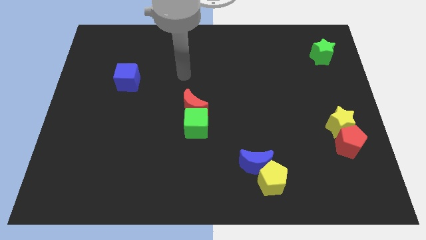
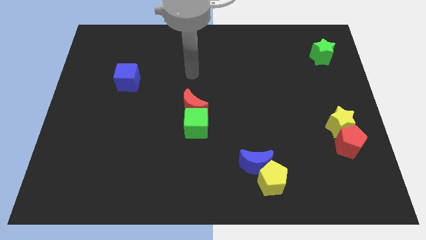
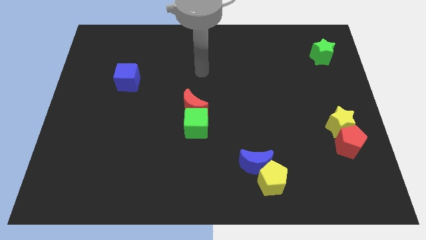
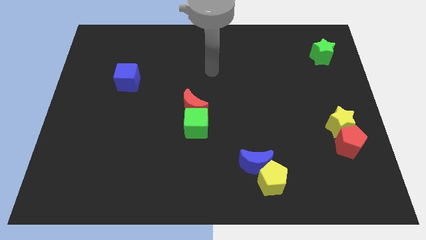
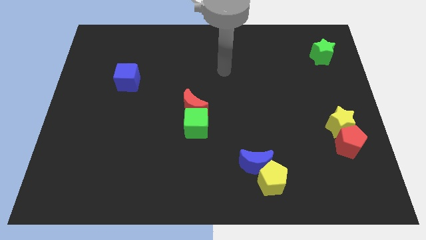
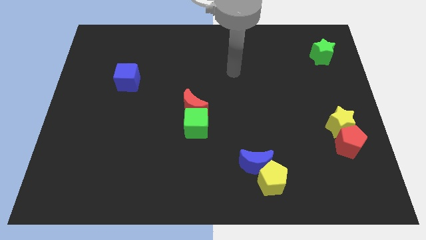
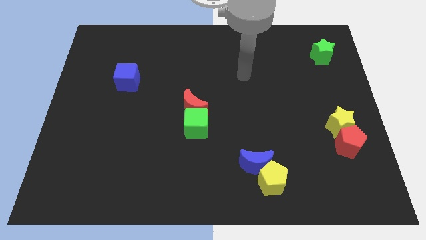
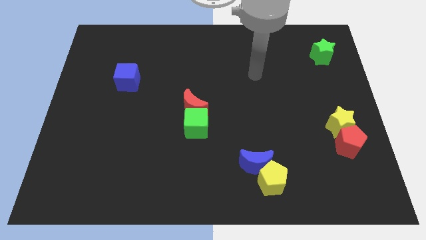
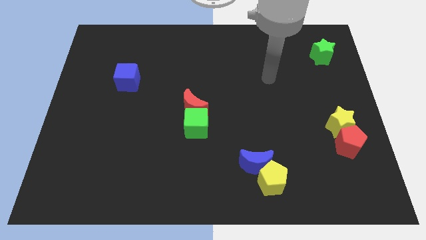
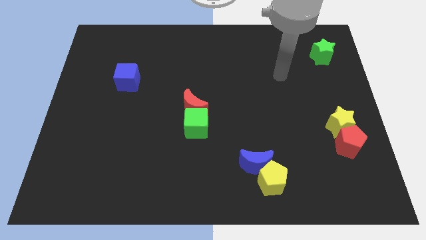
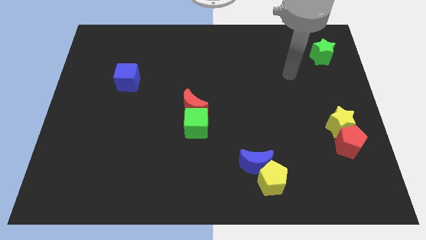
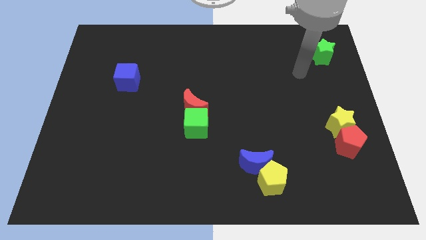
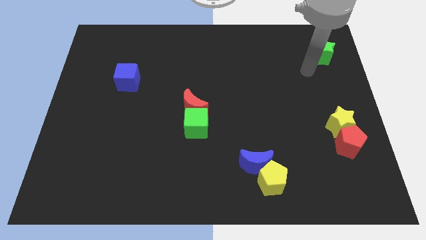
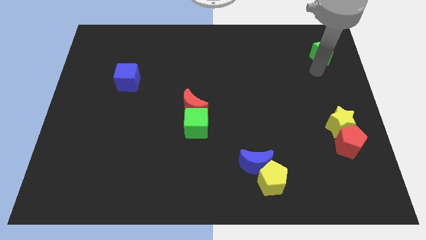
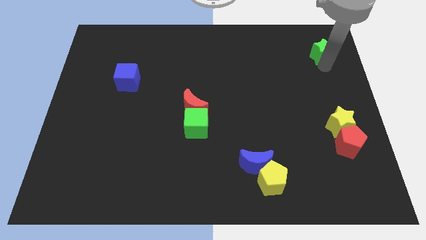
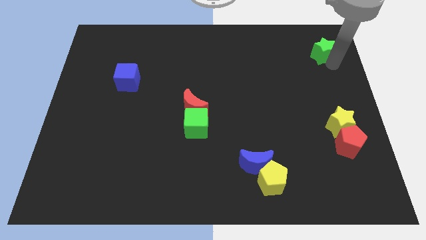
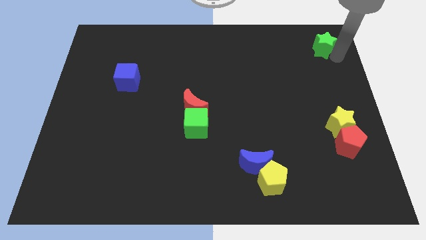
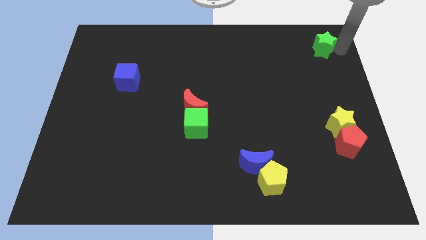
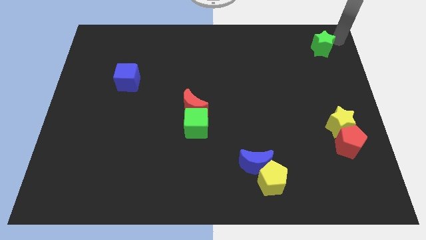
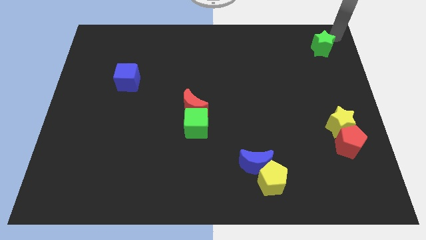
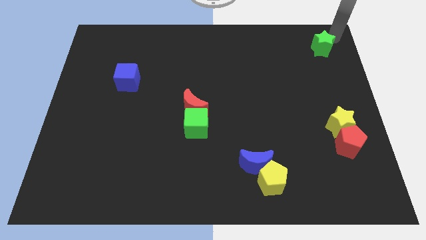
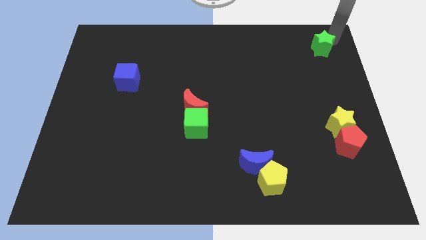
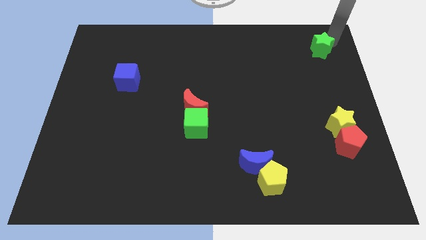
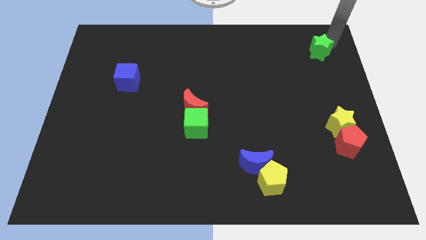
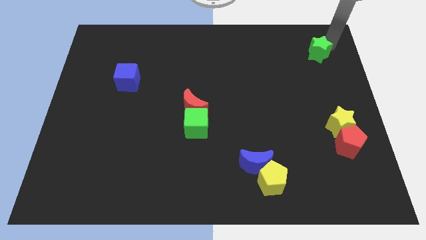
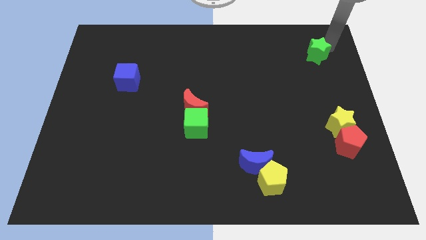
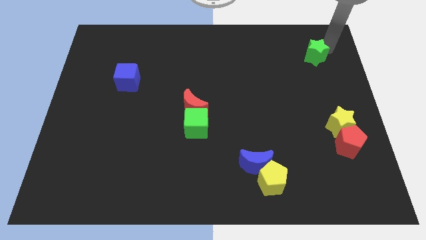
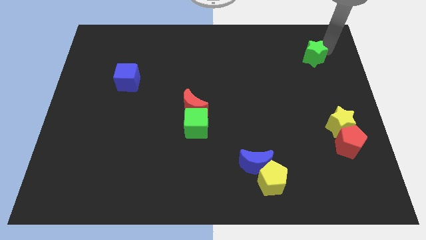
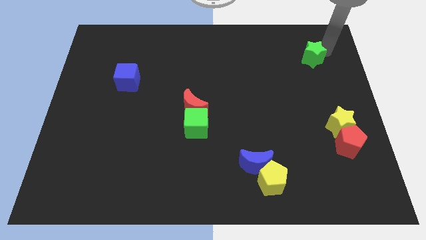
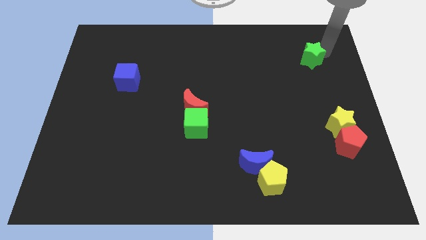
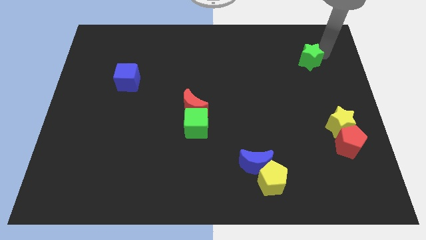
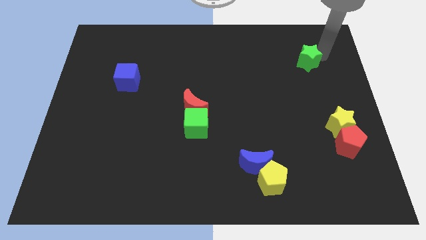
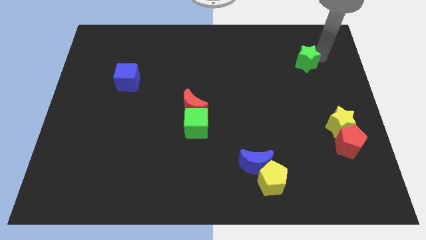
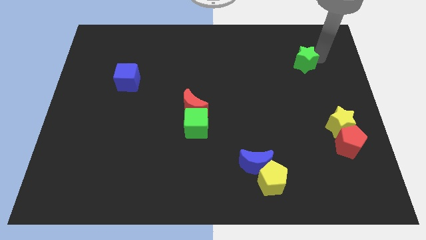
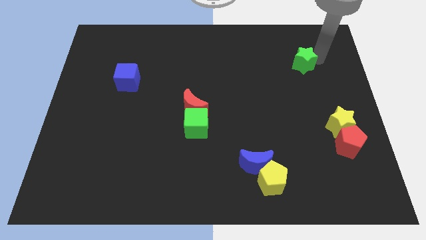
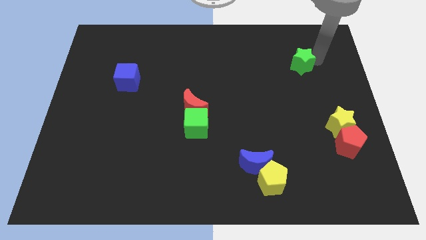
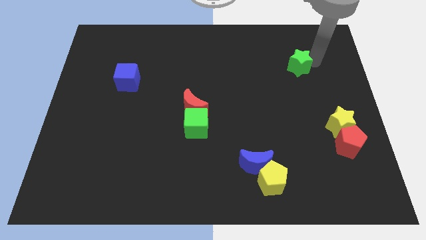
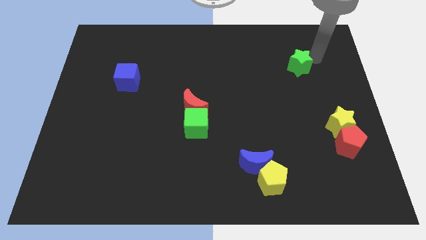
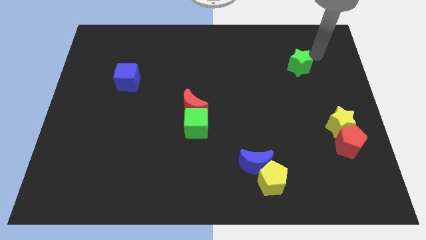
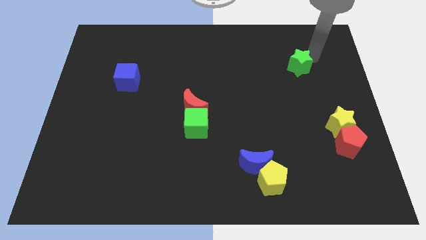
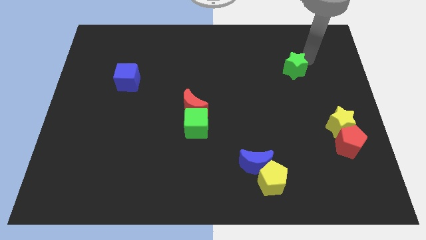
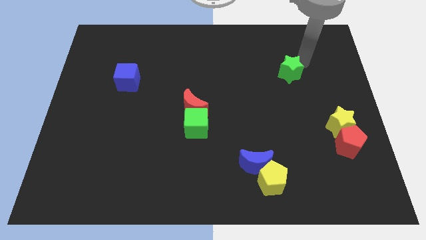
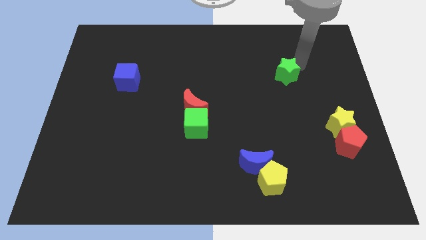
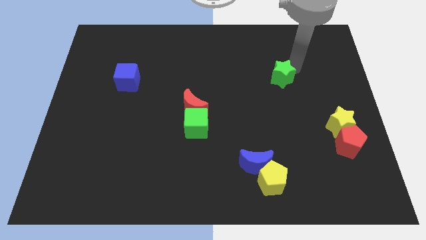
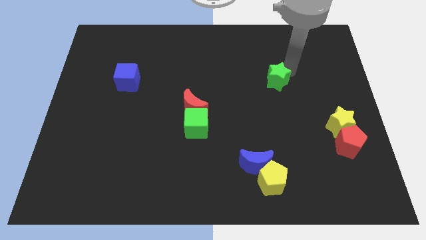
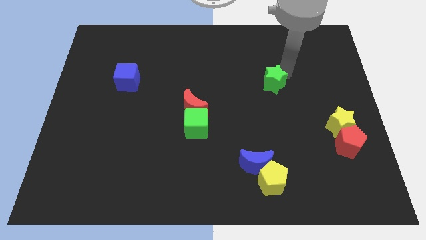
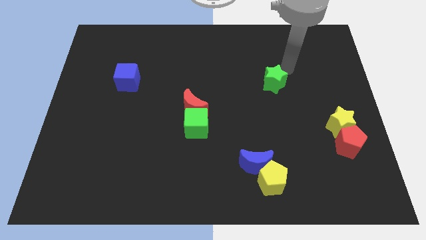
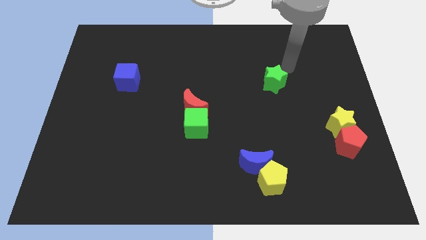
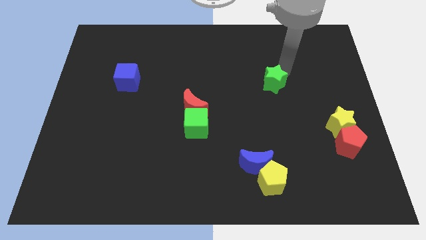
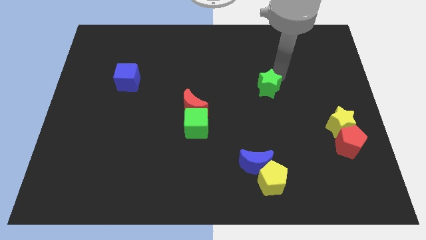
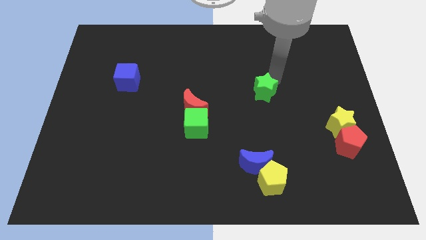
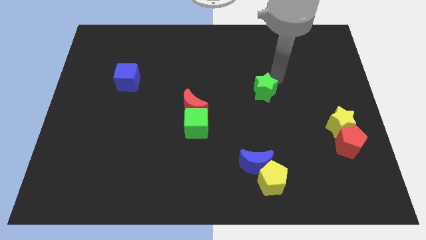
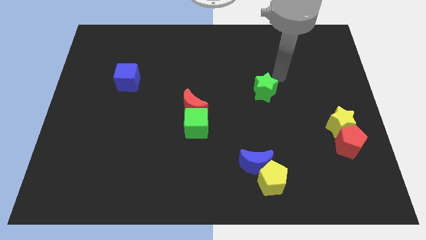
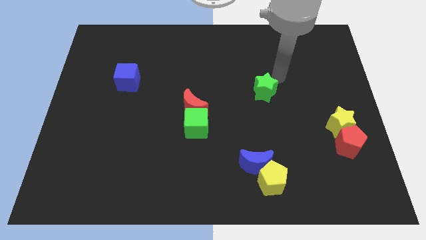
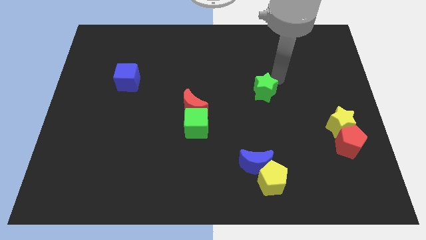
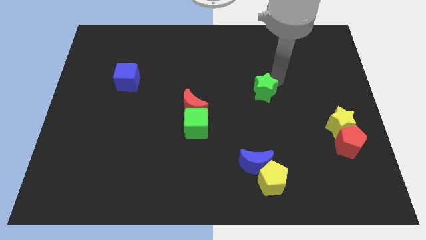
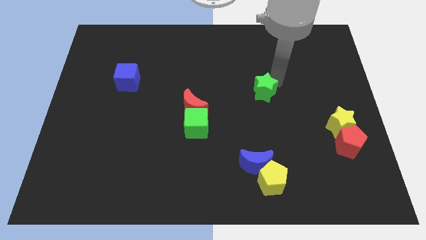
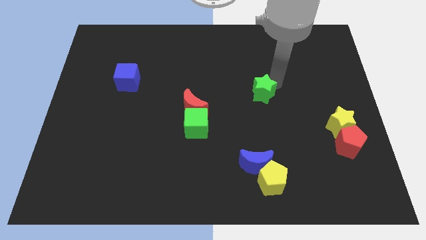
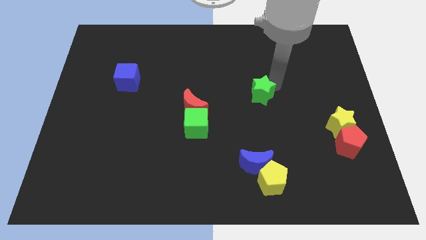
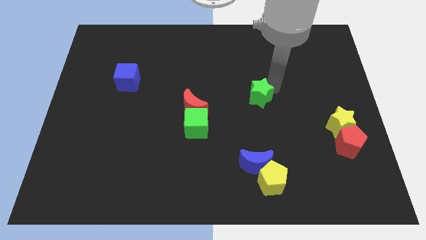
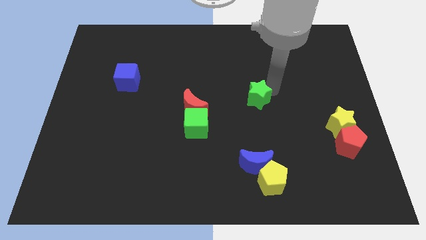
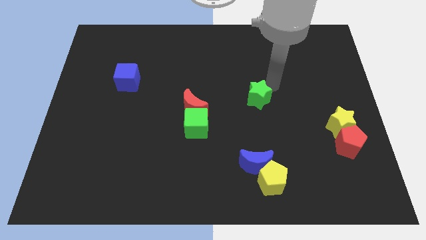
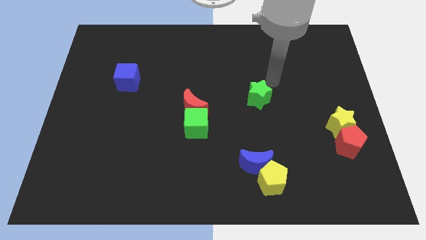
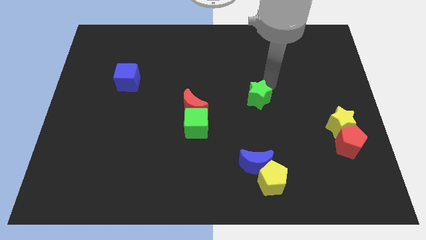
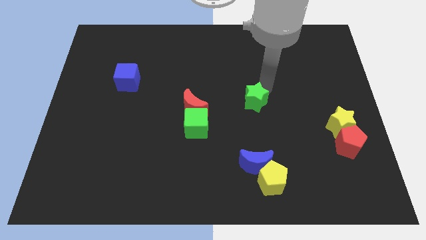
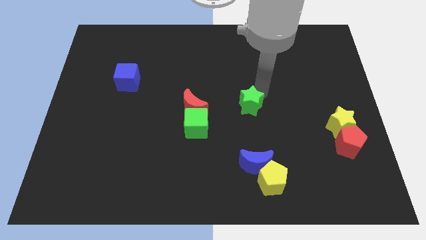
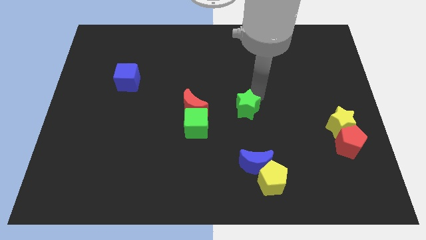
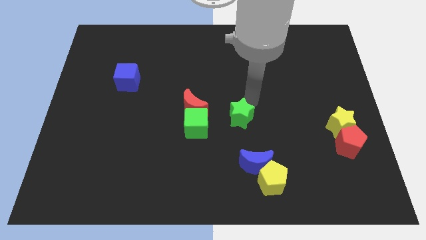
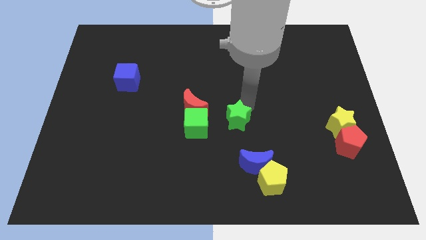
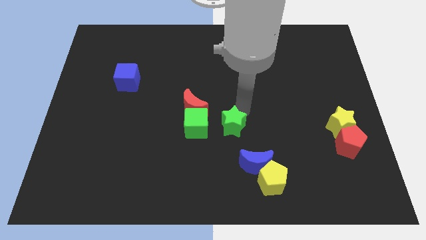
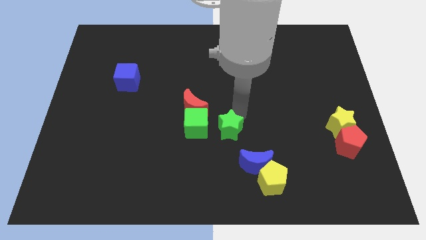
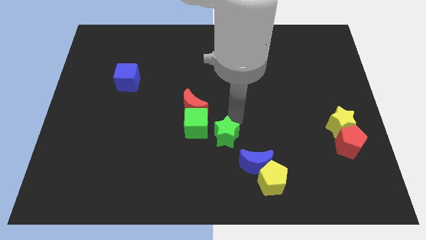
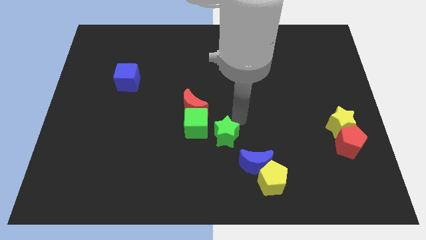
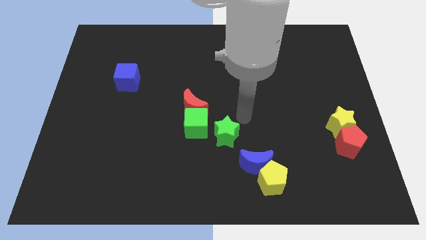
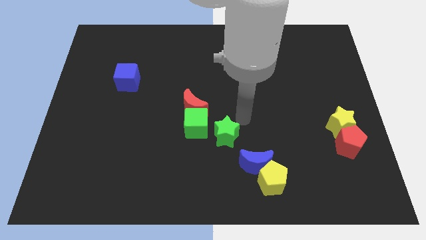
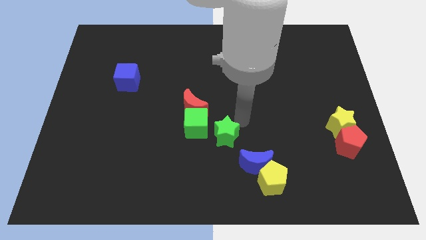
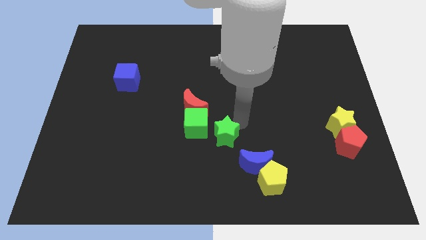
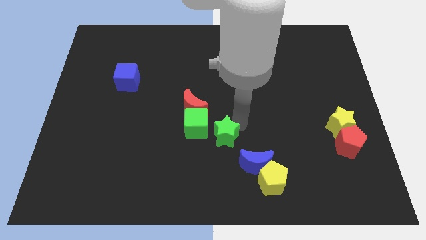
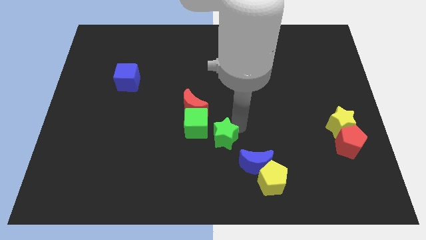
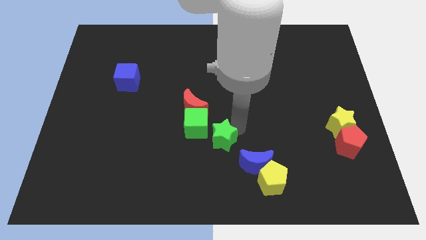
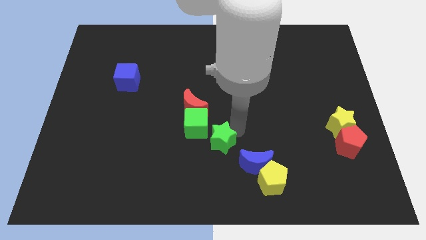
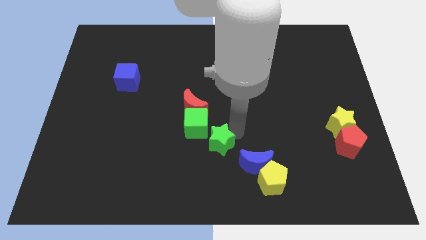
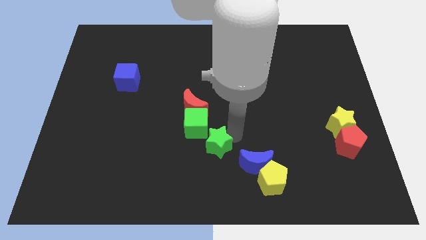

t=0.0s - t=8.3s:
put the green star to the bottom side of the green cube
